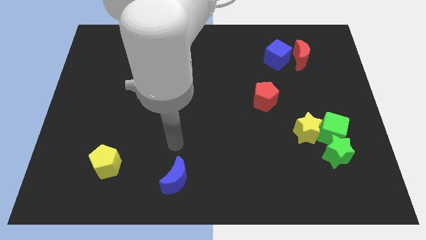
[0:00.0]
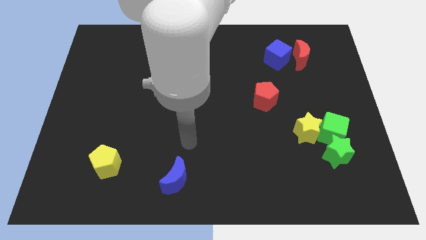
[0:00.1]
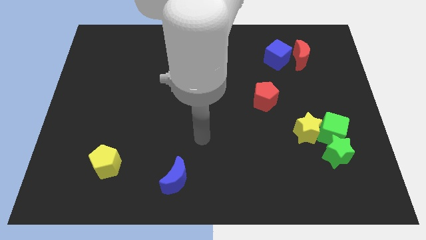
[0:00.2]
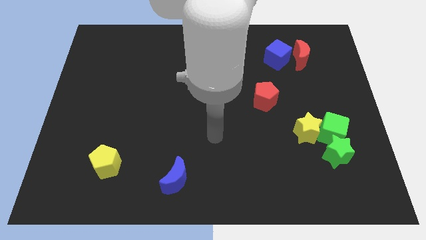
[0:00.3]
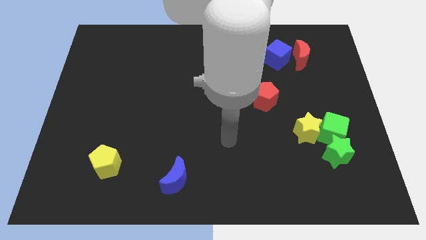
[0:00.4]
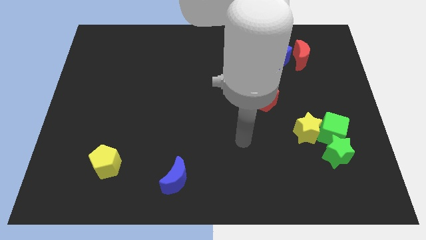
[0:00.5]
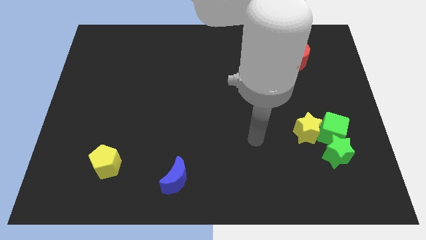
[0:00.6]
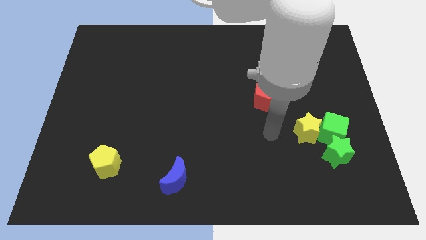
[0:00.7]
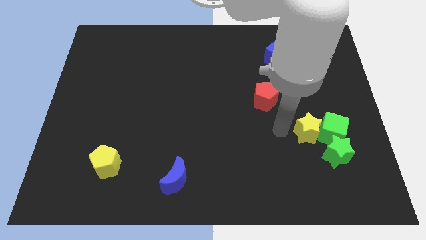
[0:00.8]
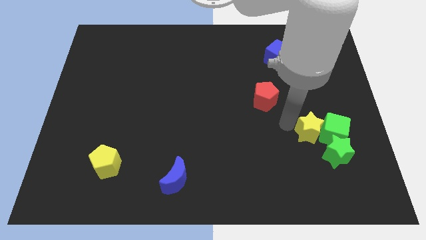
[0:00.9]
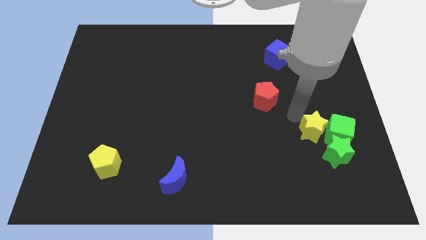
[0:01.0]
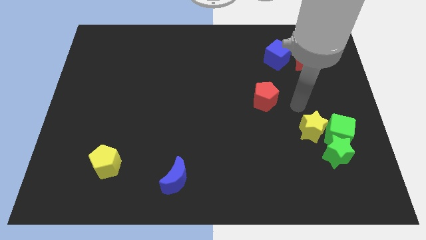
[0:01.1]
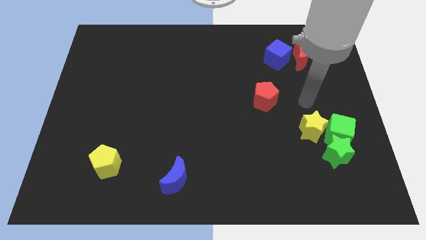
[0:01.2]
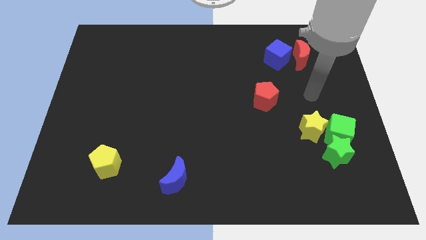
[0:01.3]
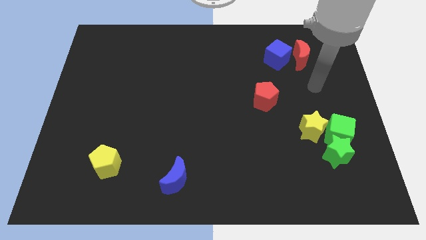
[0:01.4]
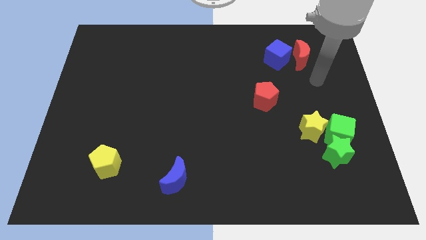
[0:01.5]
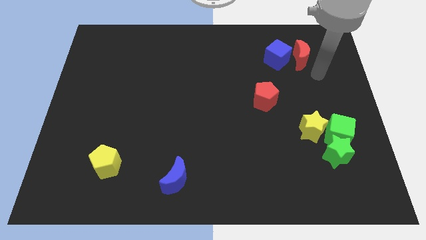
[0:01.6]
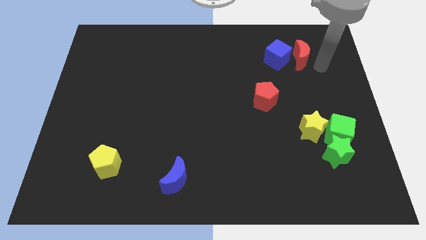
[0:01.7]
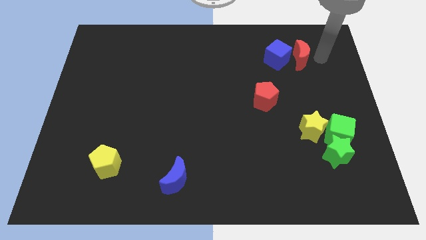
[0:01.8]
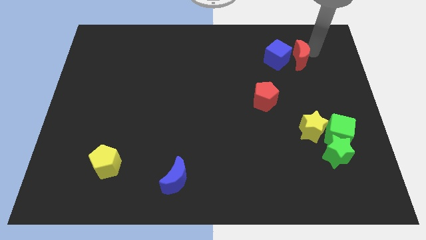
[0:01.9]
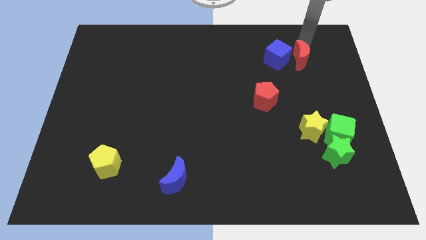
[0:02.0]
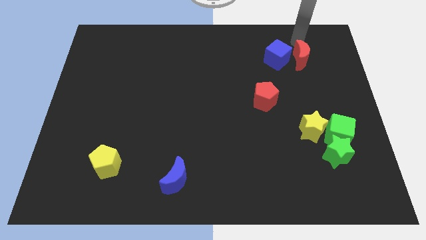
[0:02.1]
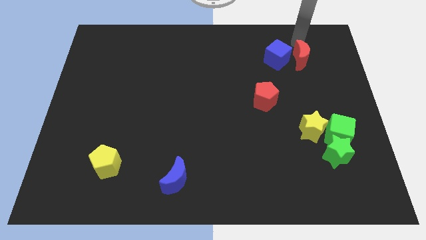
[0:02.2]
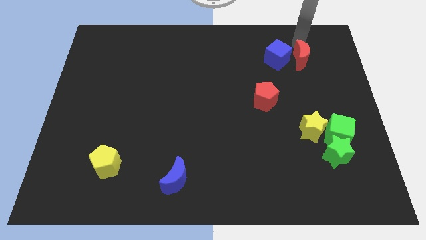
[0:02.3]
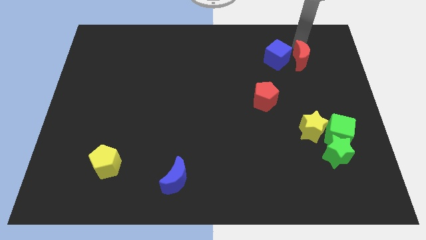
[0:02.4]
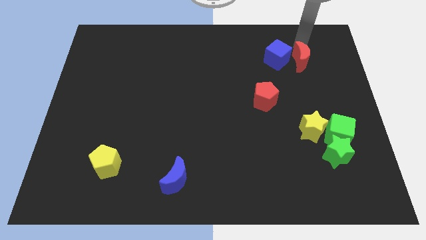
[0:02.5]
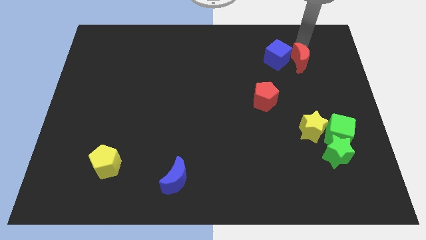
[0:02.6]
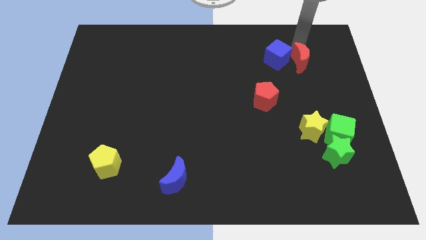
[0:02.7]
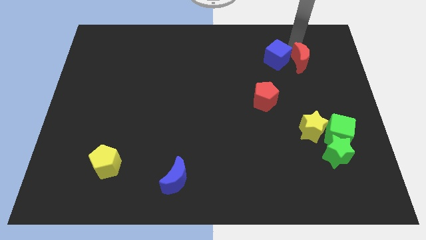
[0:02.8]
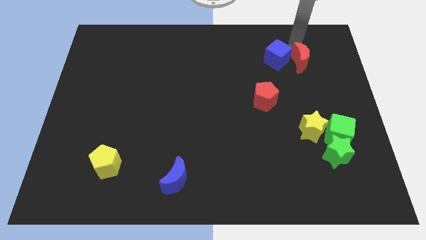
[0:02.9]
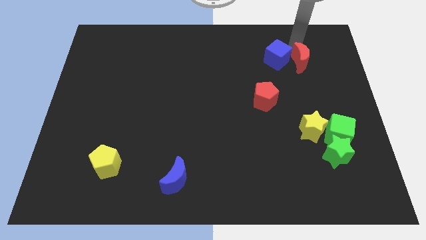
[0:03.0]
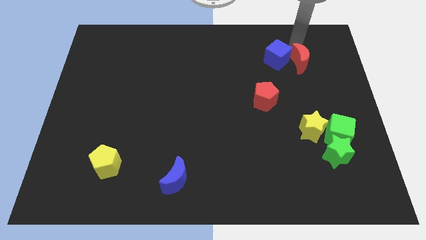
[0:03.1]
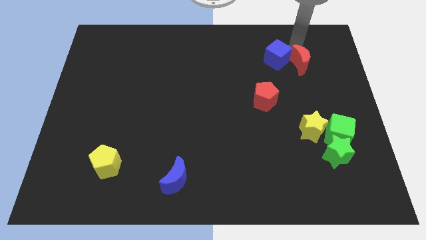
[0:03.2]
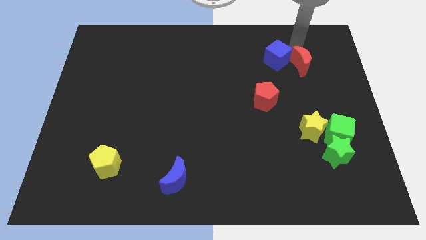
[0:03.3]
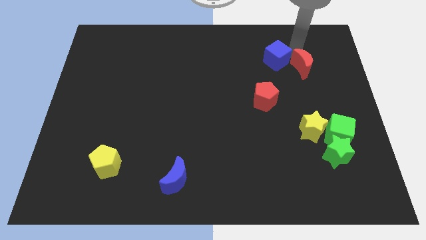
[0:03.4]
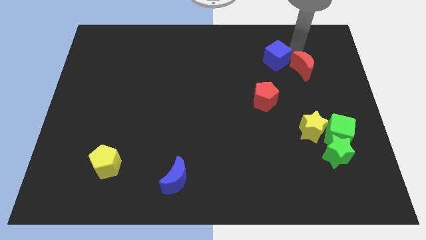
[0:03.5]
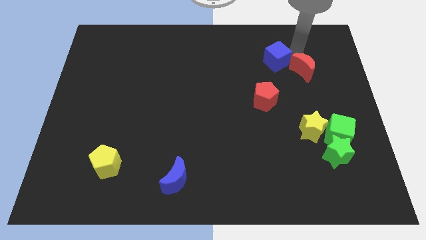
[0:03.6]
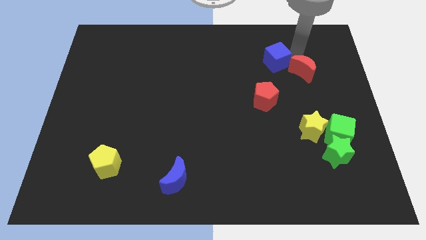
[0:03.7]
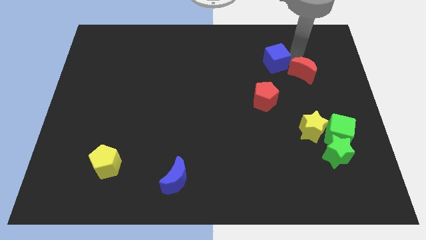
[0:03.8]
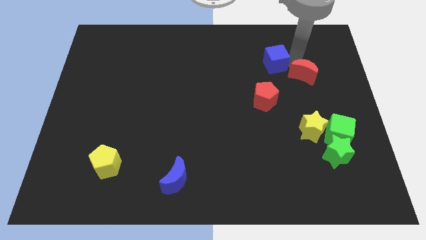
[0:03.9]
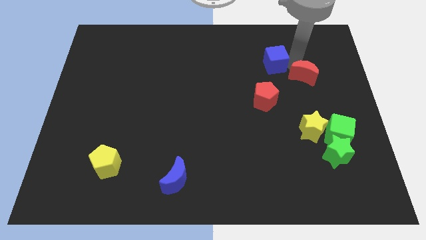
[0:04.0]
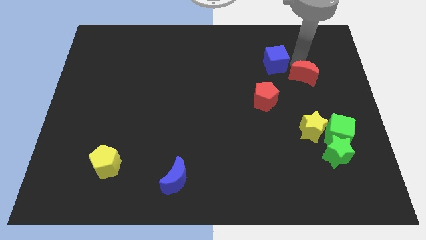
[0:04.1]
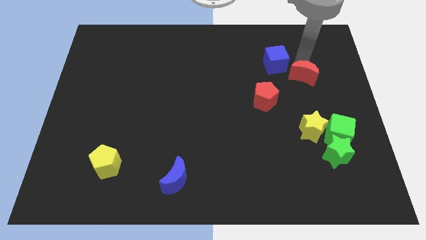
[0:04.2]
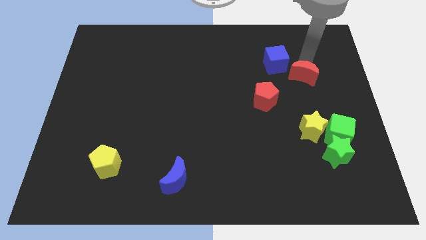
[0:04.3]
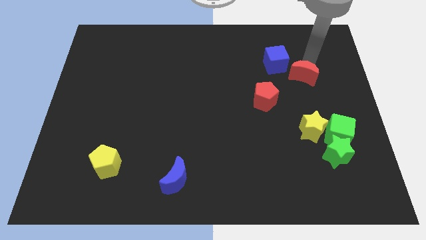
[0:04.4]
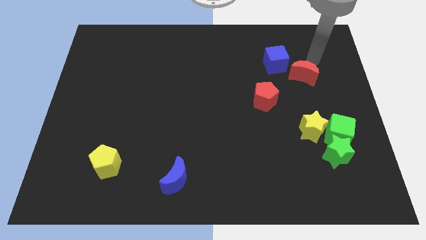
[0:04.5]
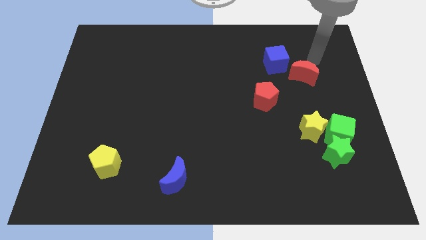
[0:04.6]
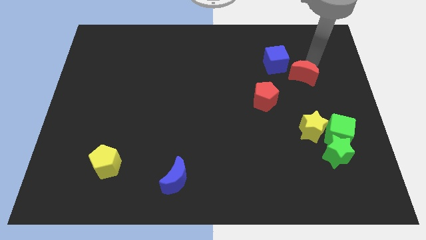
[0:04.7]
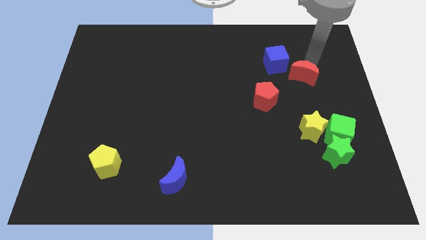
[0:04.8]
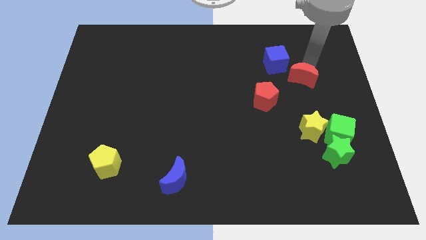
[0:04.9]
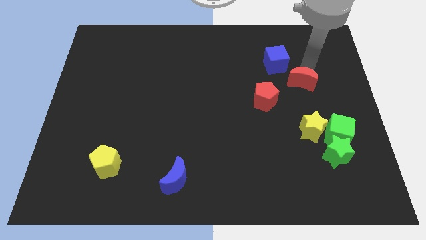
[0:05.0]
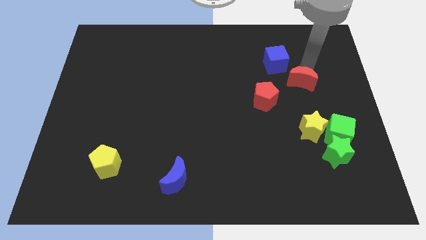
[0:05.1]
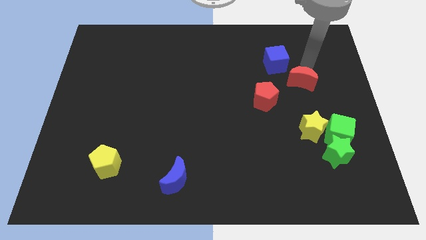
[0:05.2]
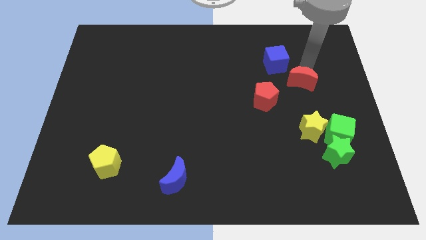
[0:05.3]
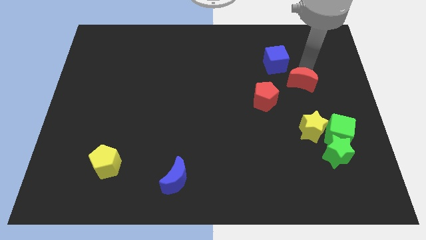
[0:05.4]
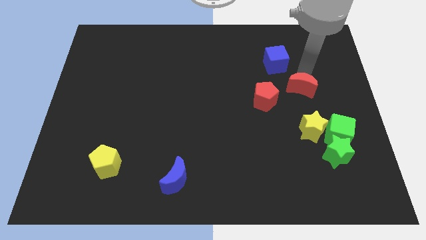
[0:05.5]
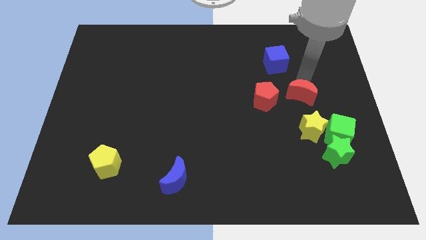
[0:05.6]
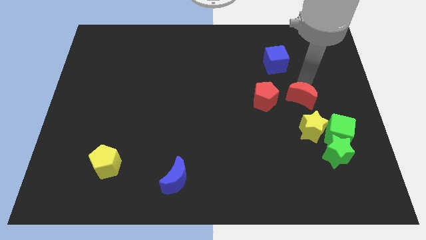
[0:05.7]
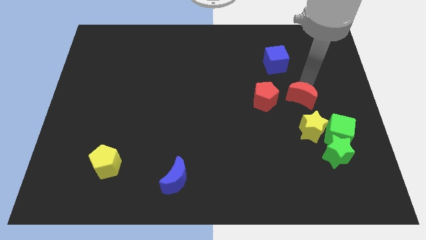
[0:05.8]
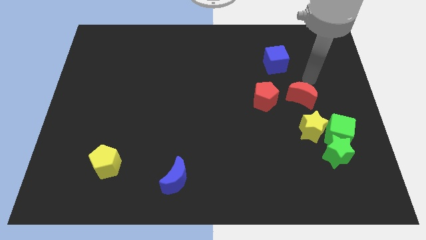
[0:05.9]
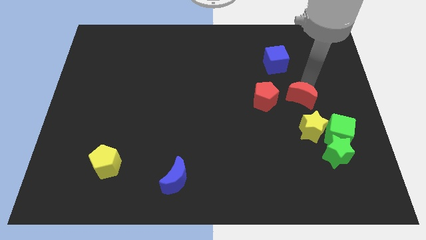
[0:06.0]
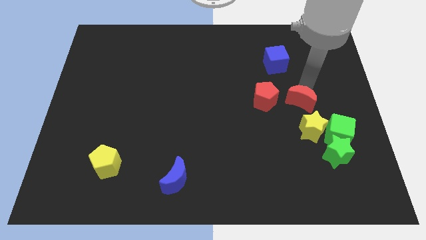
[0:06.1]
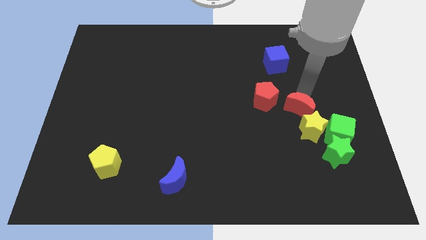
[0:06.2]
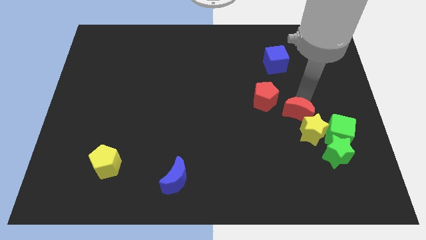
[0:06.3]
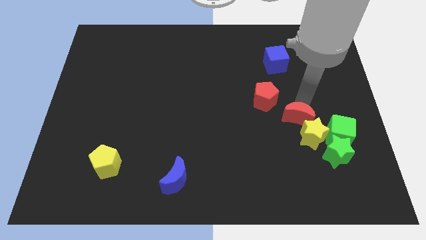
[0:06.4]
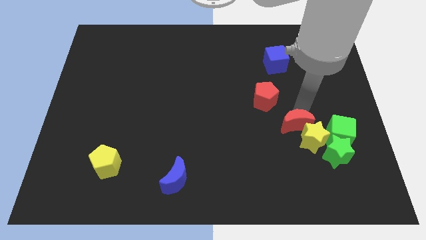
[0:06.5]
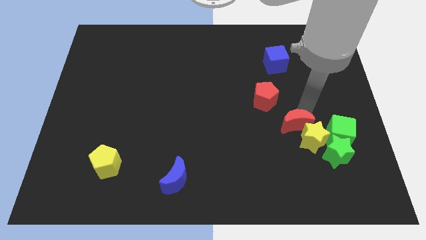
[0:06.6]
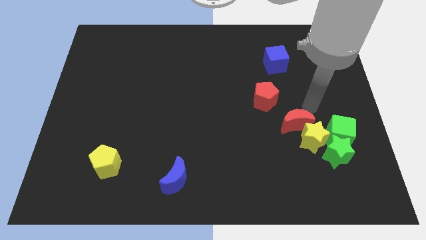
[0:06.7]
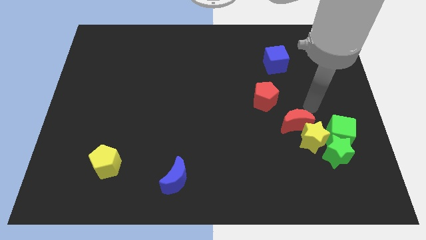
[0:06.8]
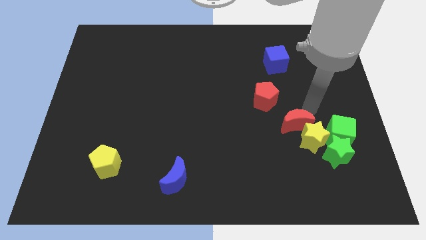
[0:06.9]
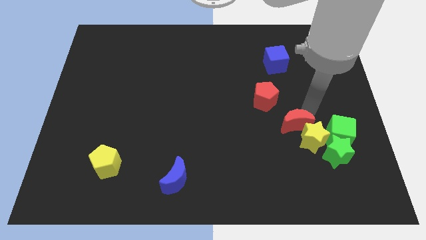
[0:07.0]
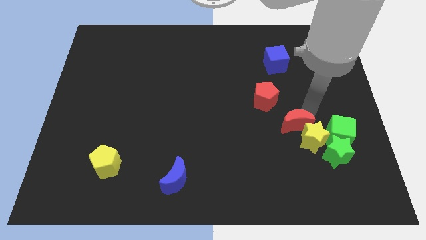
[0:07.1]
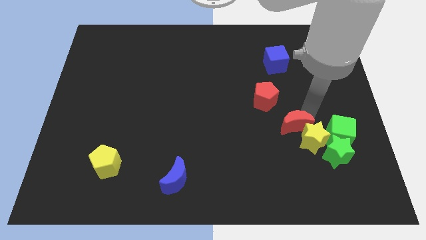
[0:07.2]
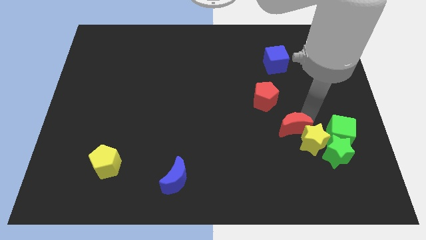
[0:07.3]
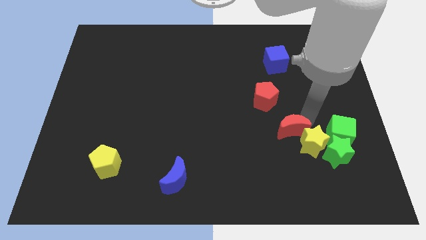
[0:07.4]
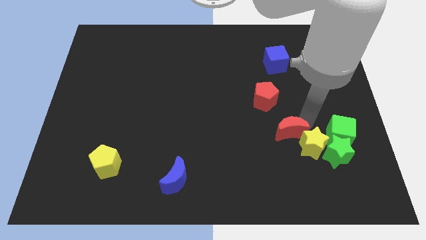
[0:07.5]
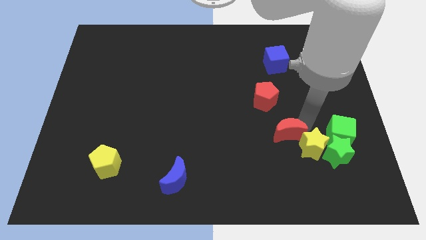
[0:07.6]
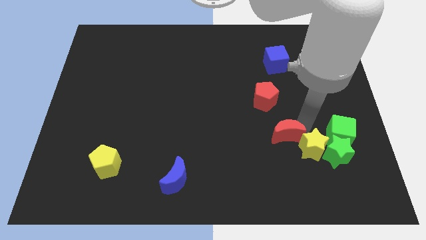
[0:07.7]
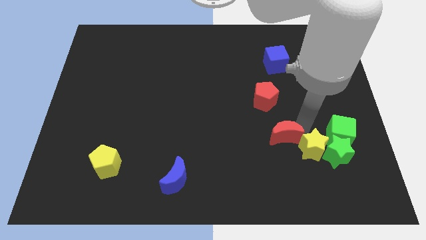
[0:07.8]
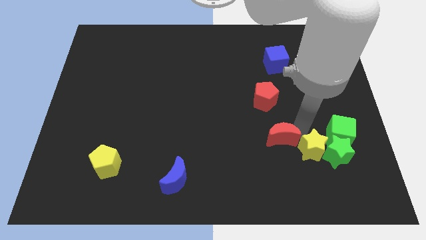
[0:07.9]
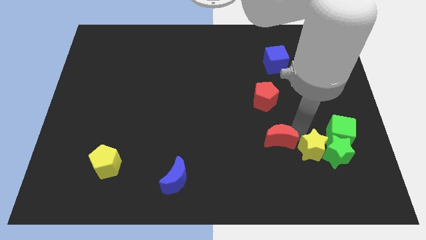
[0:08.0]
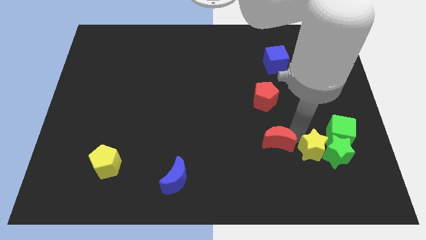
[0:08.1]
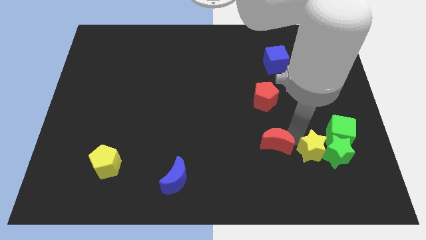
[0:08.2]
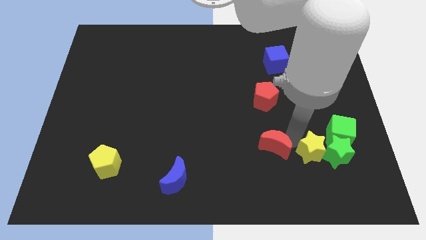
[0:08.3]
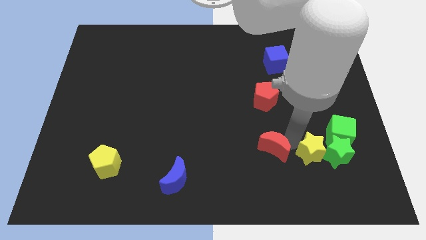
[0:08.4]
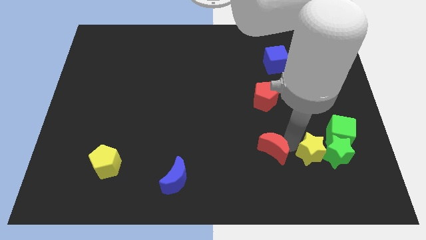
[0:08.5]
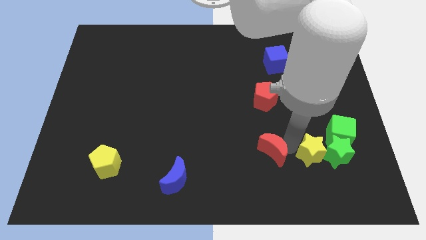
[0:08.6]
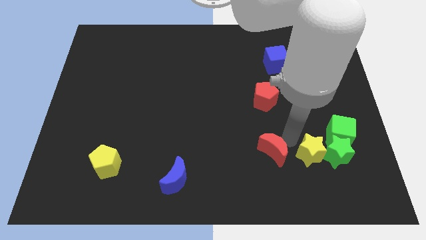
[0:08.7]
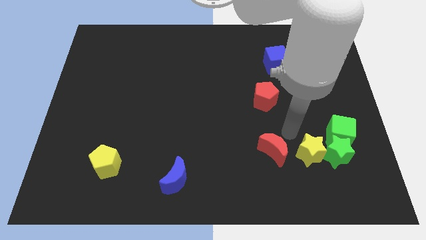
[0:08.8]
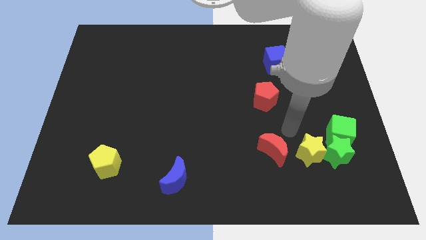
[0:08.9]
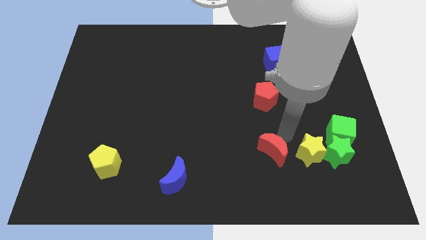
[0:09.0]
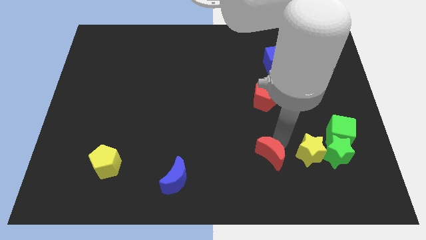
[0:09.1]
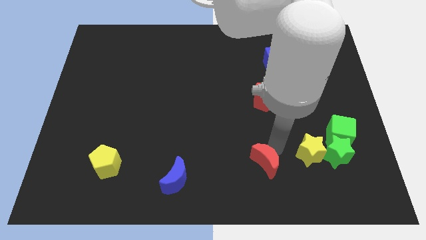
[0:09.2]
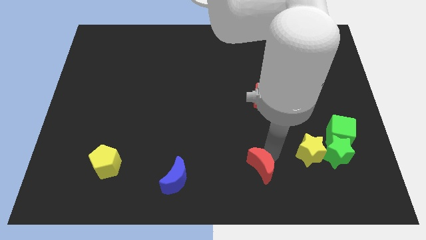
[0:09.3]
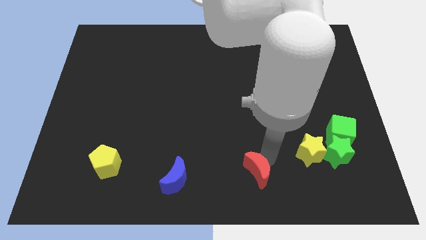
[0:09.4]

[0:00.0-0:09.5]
move the red moon to the bottom
